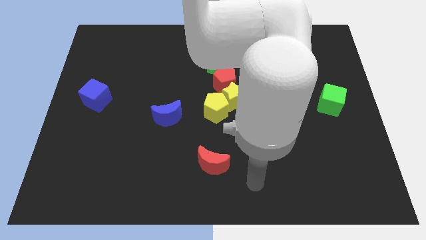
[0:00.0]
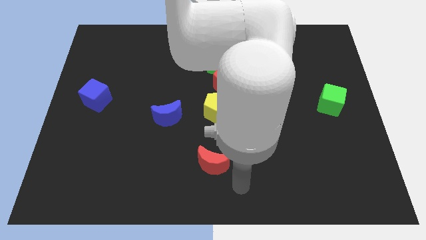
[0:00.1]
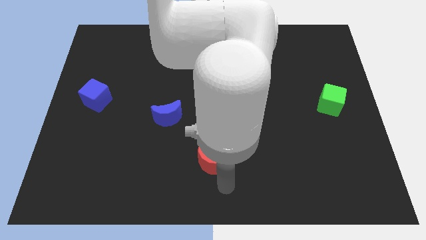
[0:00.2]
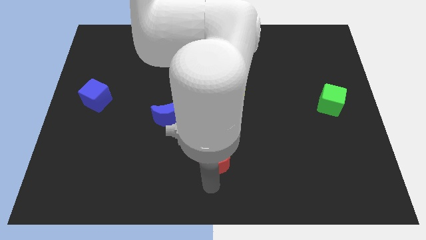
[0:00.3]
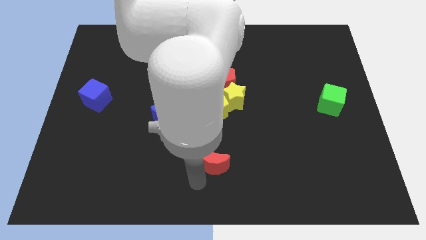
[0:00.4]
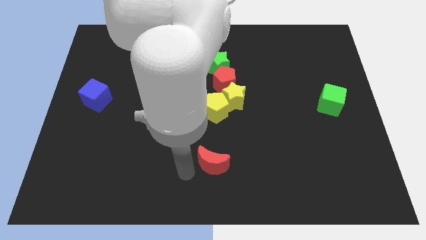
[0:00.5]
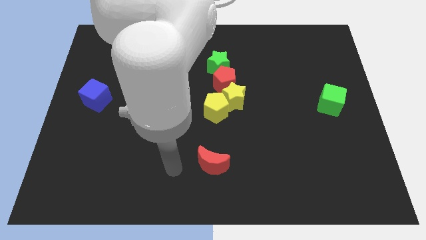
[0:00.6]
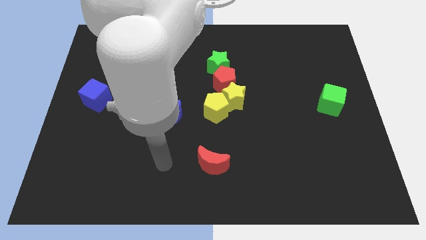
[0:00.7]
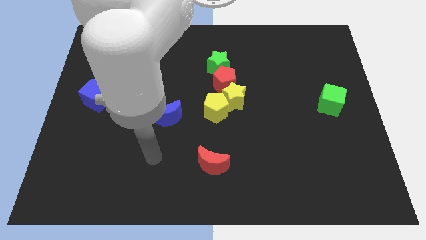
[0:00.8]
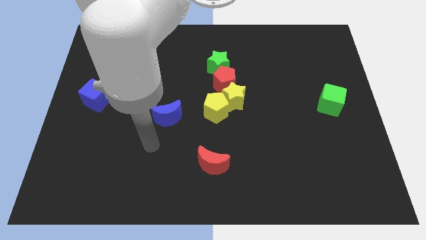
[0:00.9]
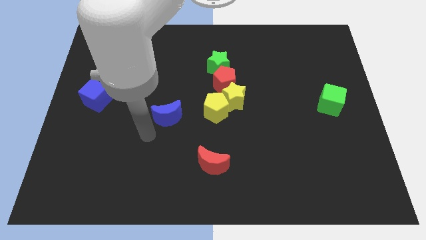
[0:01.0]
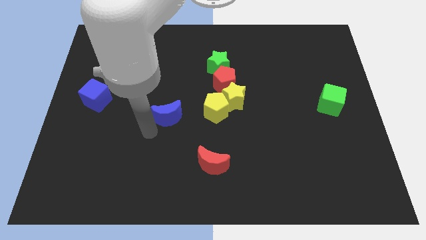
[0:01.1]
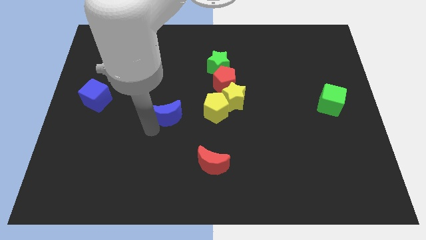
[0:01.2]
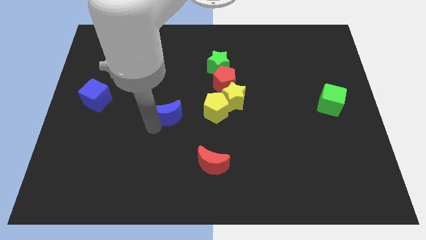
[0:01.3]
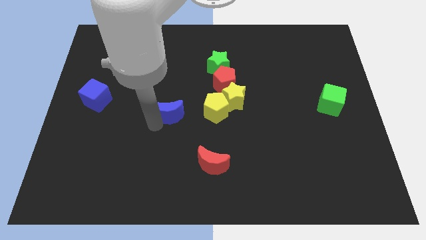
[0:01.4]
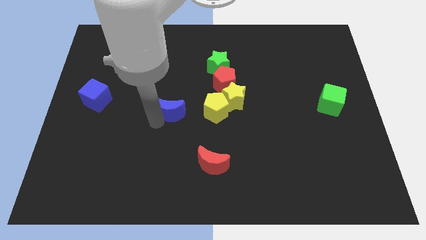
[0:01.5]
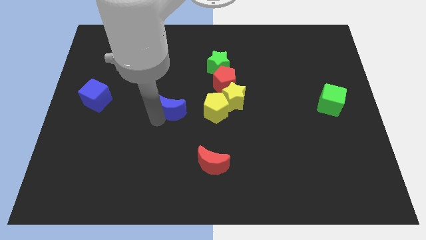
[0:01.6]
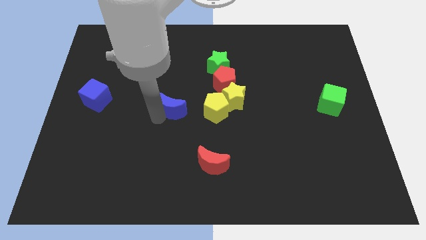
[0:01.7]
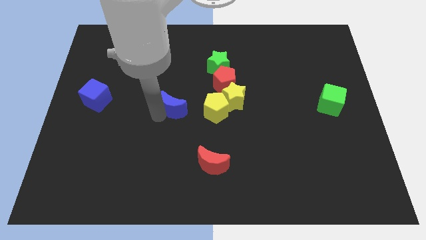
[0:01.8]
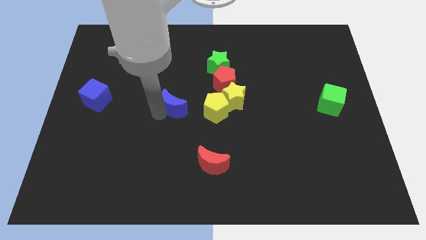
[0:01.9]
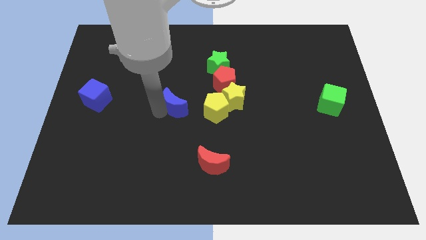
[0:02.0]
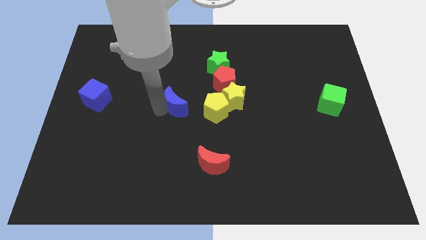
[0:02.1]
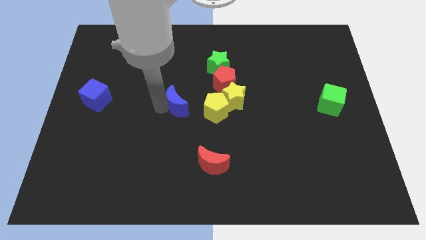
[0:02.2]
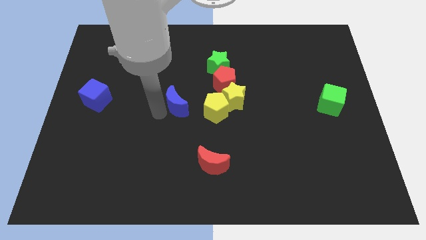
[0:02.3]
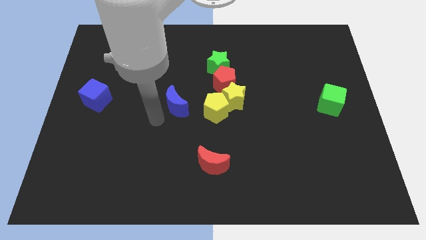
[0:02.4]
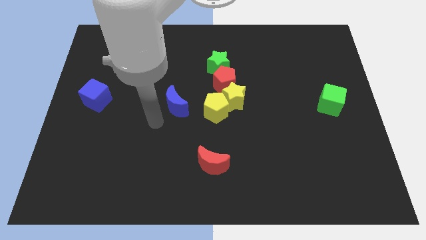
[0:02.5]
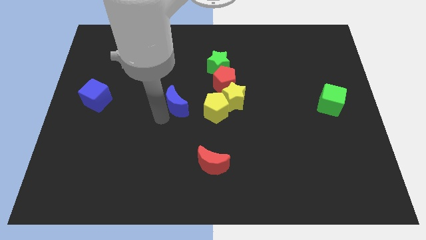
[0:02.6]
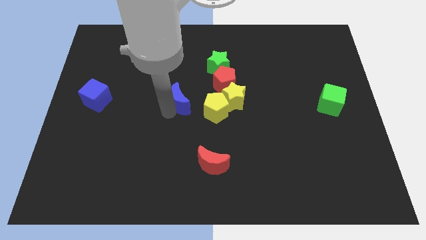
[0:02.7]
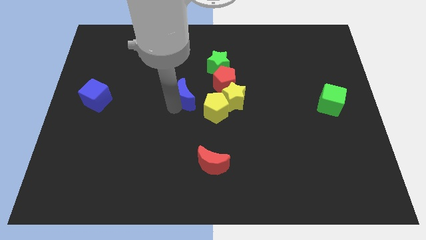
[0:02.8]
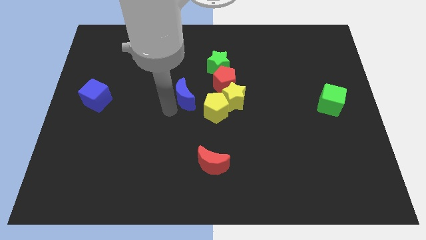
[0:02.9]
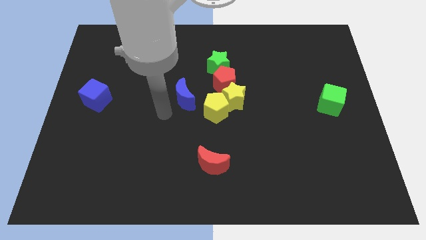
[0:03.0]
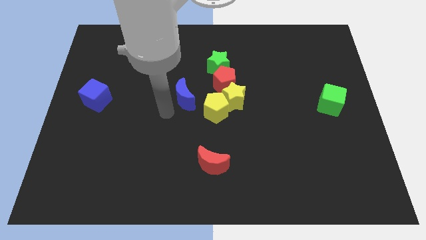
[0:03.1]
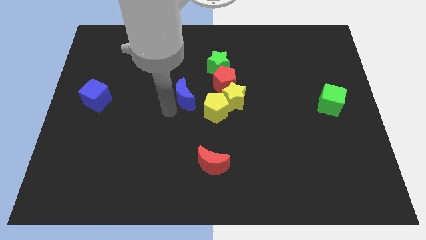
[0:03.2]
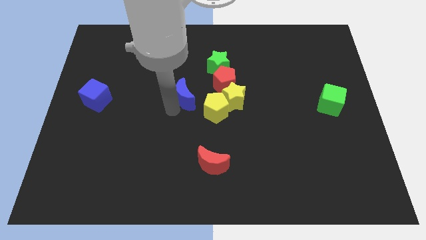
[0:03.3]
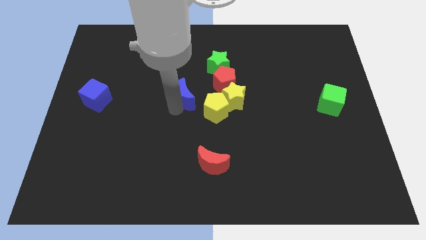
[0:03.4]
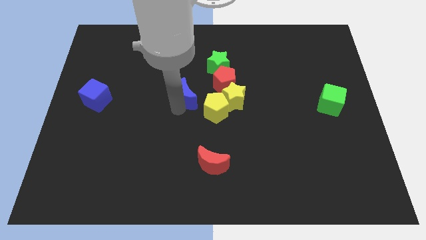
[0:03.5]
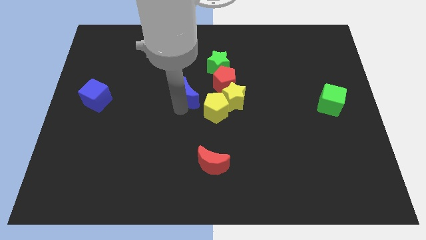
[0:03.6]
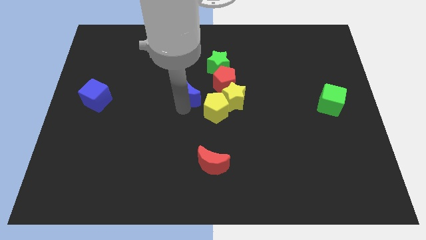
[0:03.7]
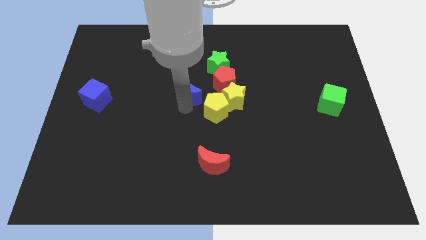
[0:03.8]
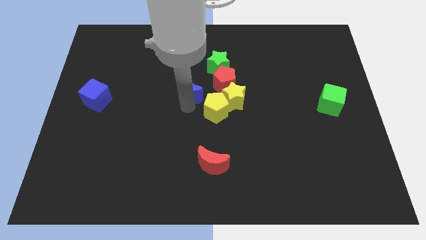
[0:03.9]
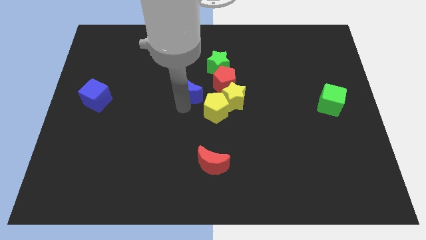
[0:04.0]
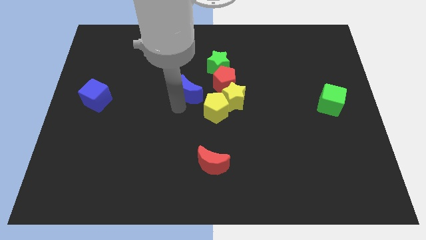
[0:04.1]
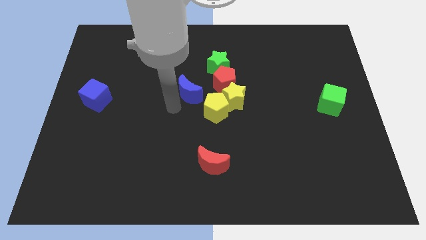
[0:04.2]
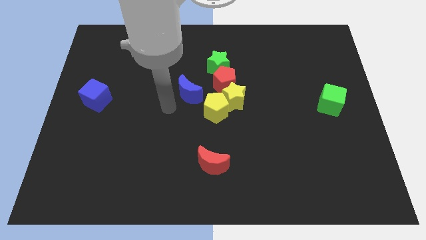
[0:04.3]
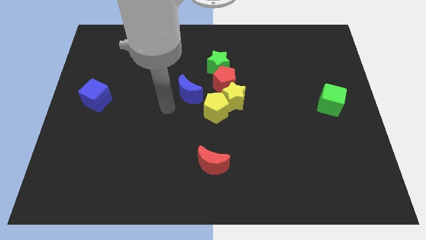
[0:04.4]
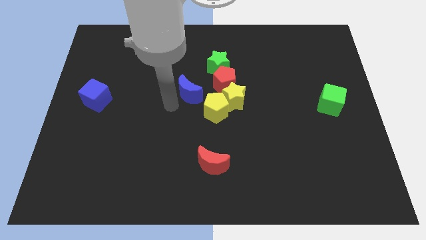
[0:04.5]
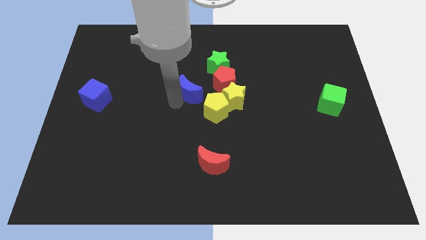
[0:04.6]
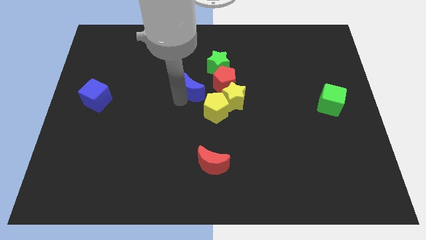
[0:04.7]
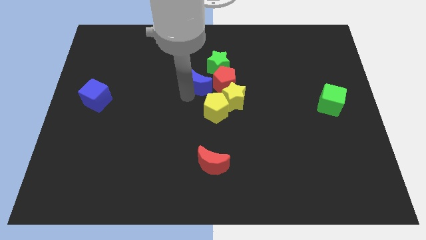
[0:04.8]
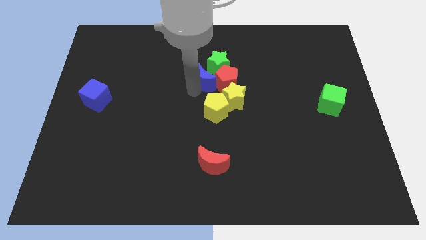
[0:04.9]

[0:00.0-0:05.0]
put the blue moon towards the green star

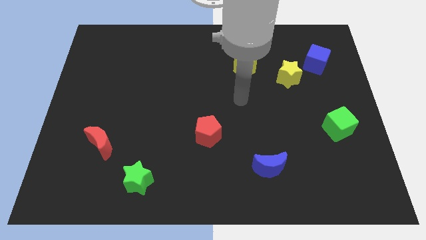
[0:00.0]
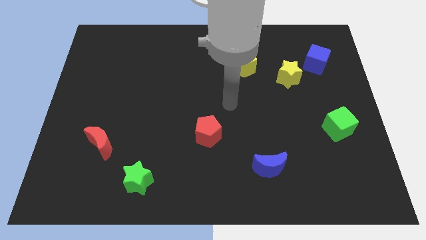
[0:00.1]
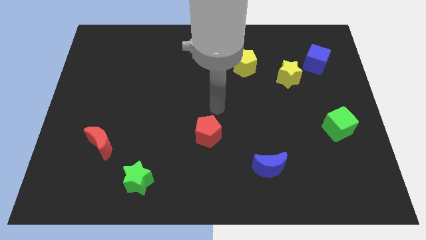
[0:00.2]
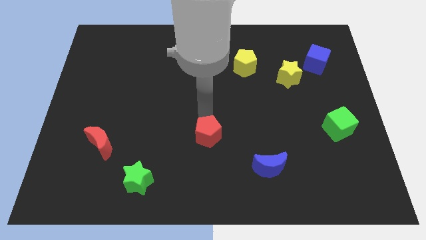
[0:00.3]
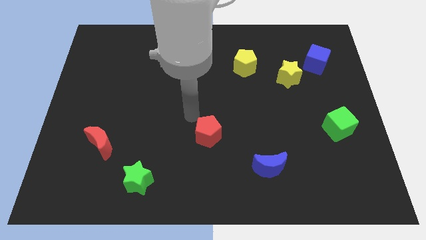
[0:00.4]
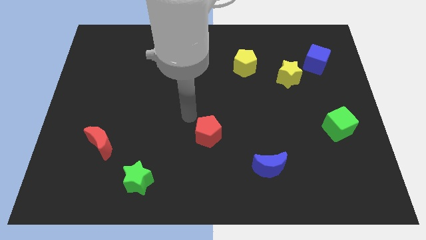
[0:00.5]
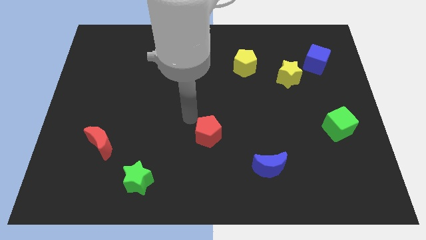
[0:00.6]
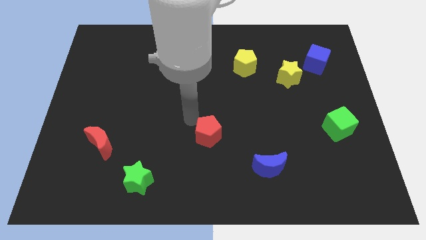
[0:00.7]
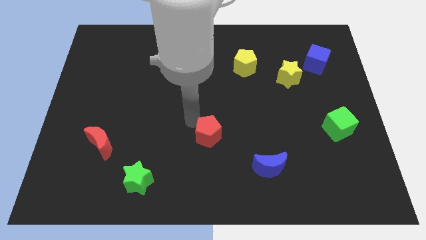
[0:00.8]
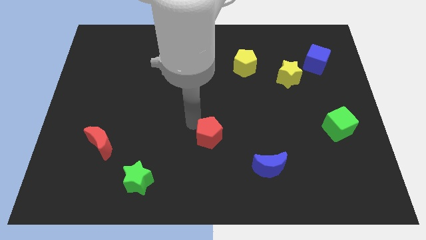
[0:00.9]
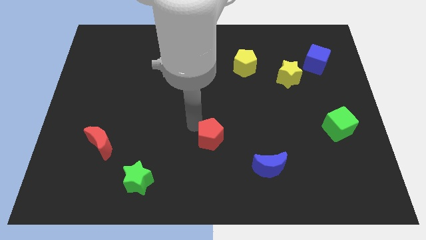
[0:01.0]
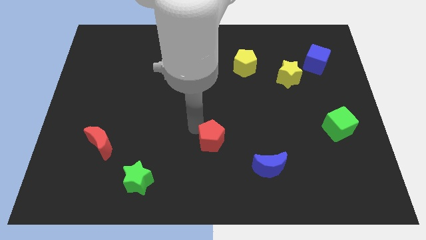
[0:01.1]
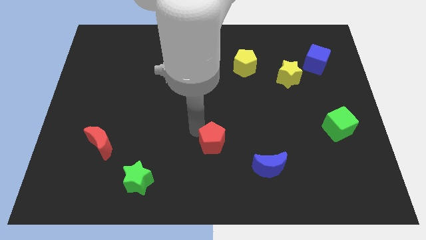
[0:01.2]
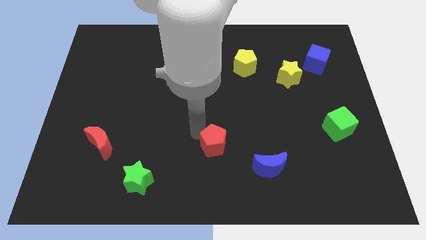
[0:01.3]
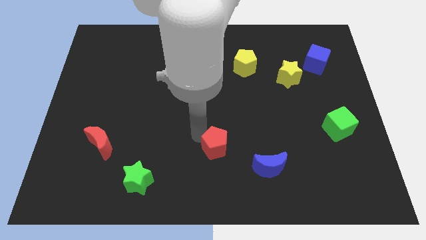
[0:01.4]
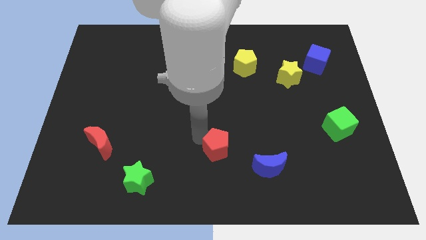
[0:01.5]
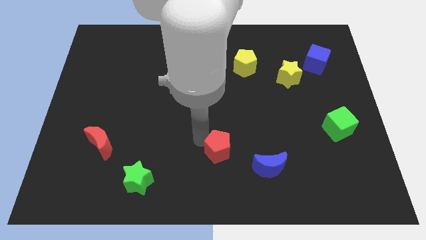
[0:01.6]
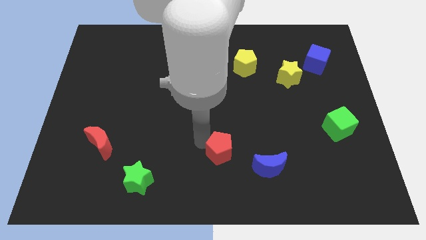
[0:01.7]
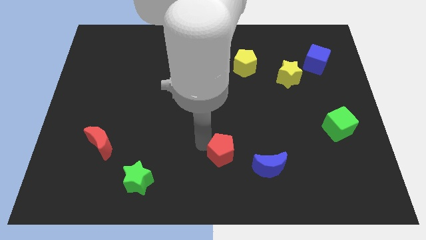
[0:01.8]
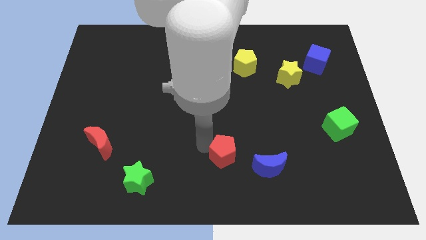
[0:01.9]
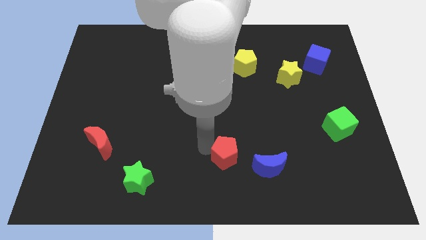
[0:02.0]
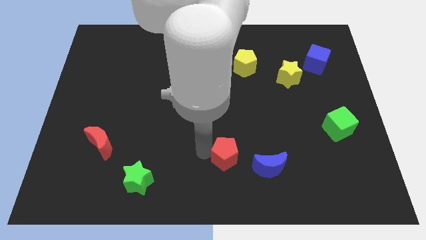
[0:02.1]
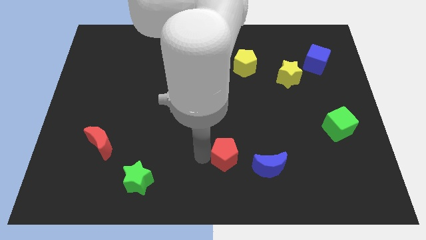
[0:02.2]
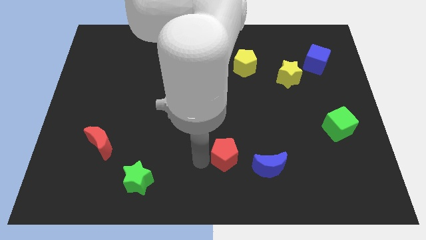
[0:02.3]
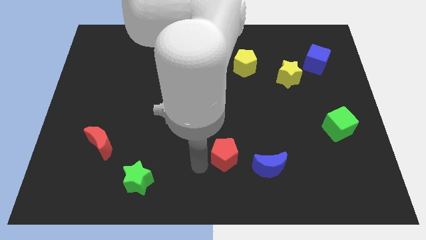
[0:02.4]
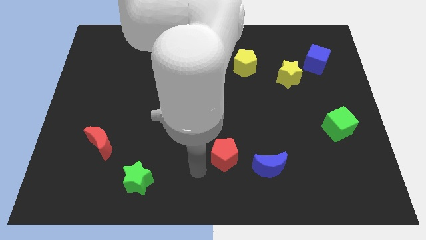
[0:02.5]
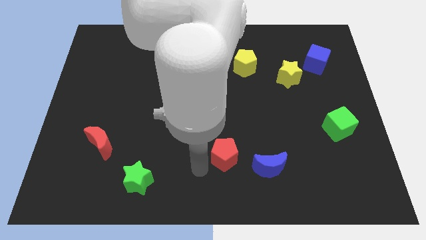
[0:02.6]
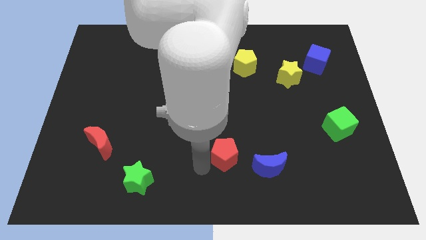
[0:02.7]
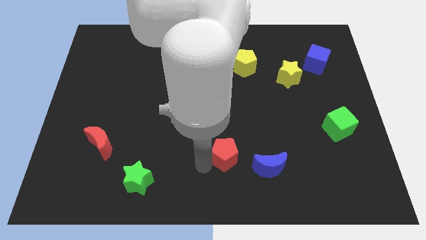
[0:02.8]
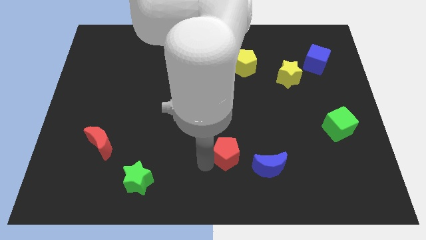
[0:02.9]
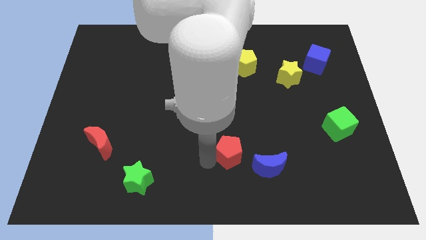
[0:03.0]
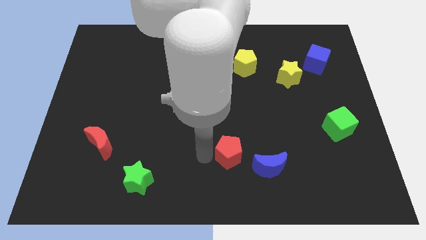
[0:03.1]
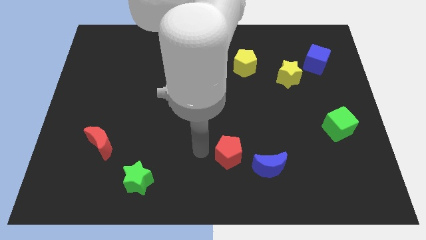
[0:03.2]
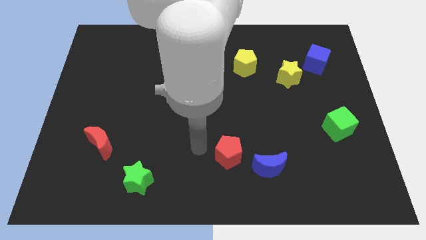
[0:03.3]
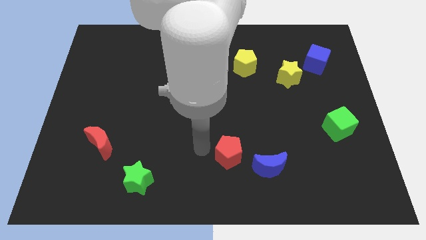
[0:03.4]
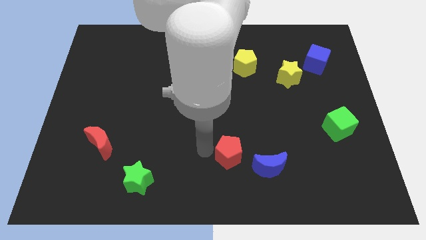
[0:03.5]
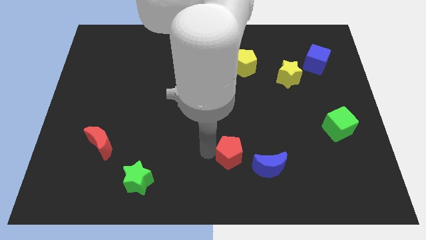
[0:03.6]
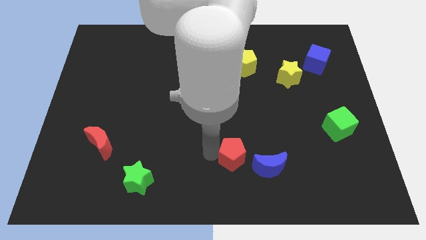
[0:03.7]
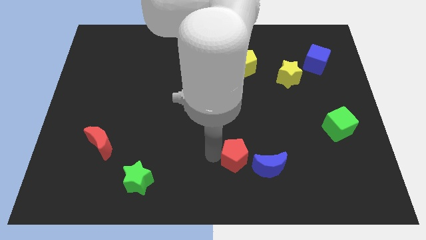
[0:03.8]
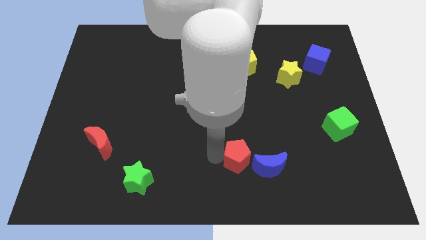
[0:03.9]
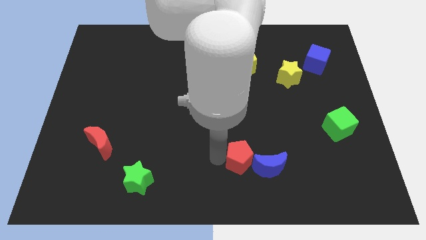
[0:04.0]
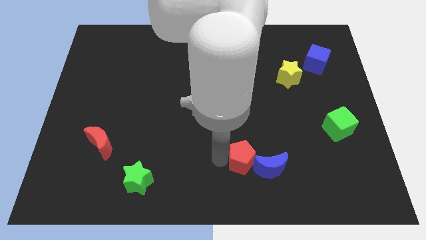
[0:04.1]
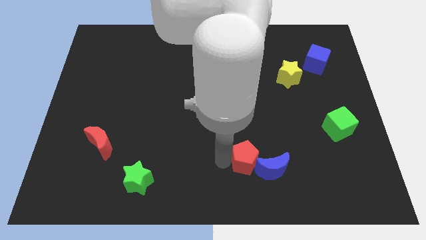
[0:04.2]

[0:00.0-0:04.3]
push the red pentagon next to the blue moon
